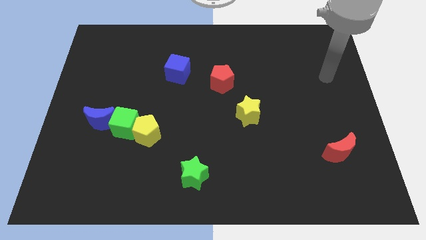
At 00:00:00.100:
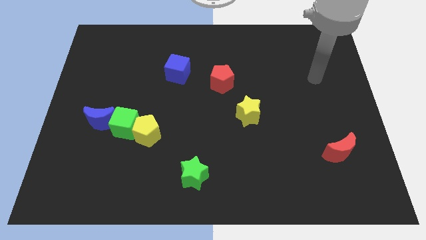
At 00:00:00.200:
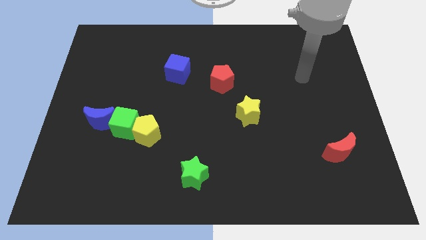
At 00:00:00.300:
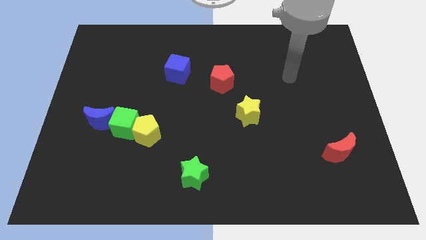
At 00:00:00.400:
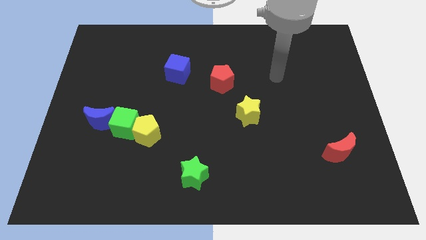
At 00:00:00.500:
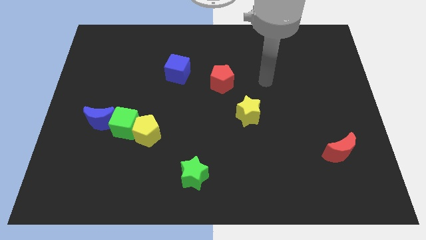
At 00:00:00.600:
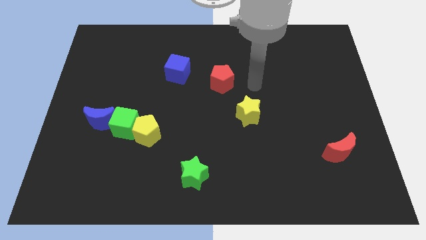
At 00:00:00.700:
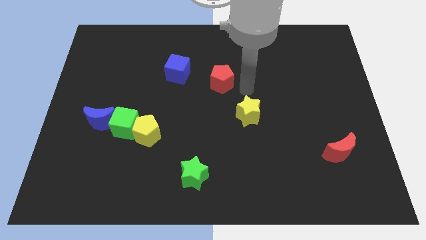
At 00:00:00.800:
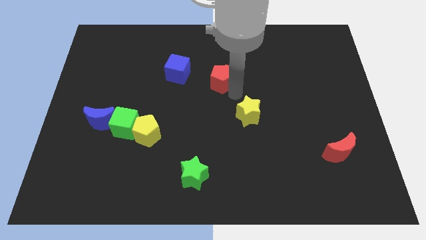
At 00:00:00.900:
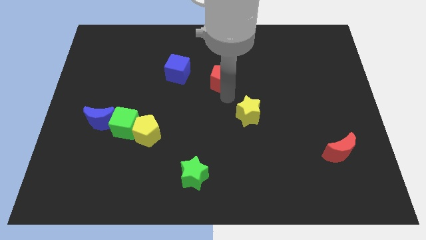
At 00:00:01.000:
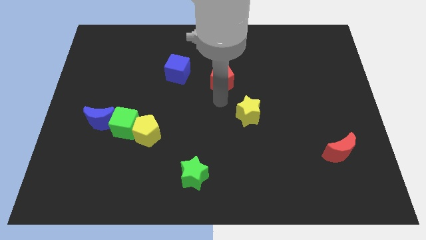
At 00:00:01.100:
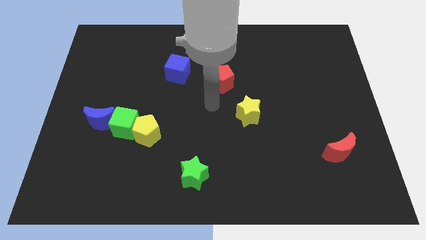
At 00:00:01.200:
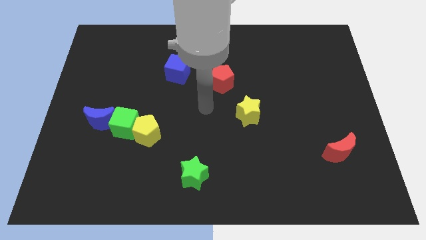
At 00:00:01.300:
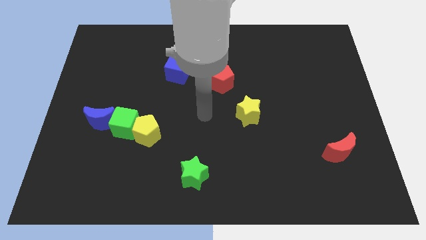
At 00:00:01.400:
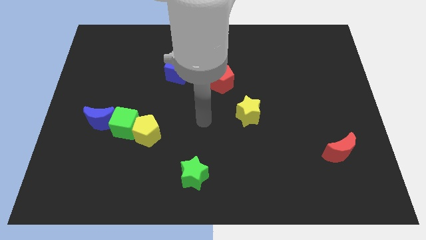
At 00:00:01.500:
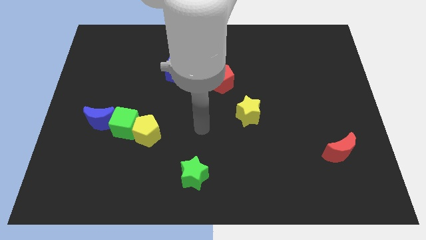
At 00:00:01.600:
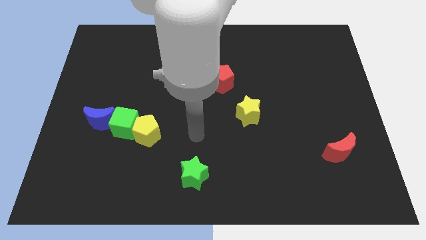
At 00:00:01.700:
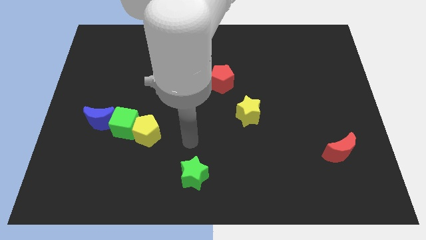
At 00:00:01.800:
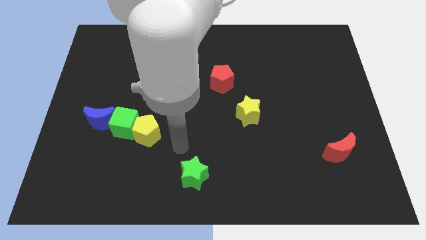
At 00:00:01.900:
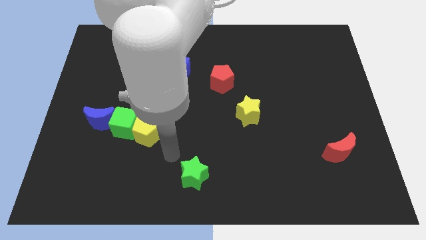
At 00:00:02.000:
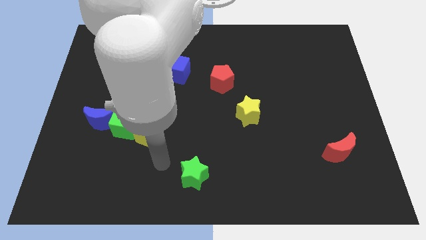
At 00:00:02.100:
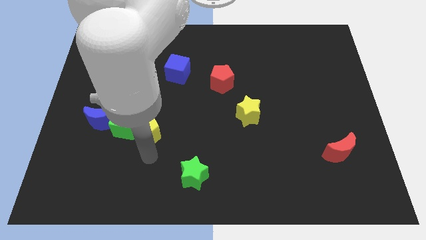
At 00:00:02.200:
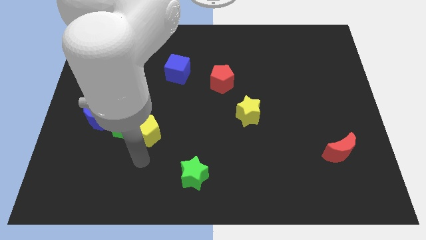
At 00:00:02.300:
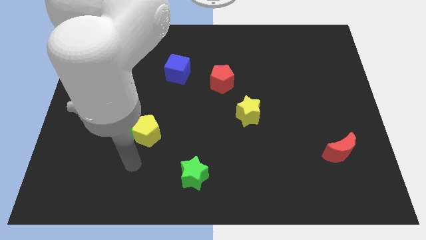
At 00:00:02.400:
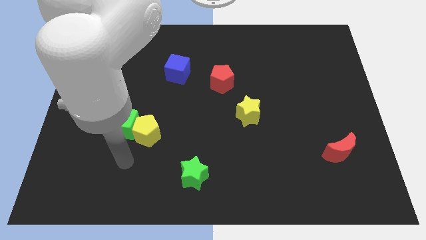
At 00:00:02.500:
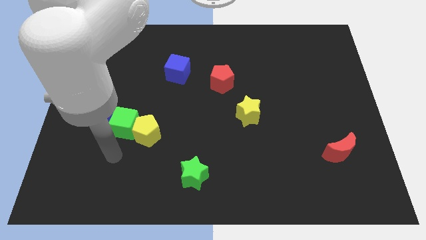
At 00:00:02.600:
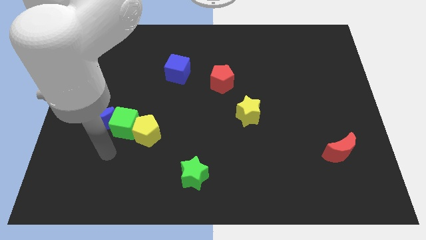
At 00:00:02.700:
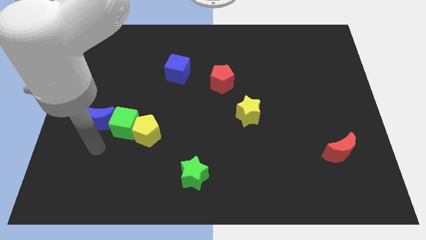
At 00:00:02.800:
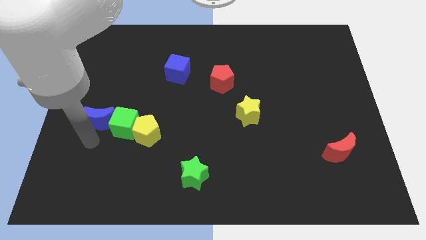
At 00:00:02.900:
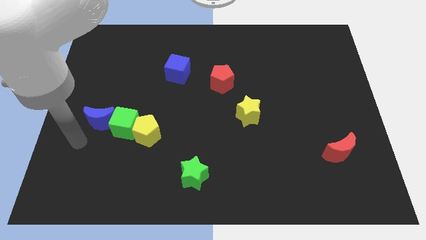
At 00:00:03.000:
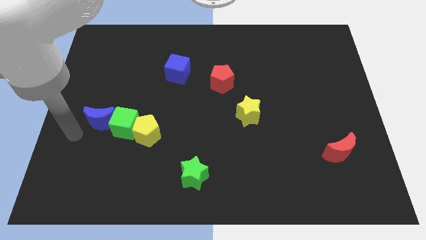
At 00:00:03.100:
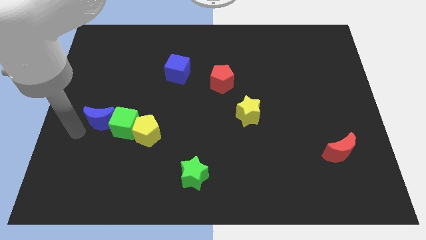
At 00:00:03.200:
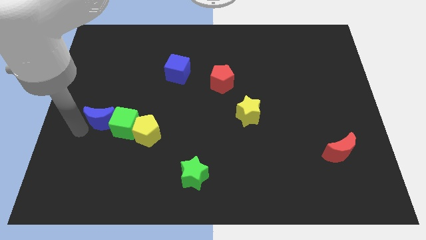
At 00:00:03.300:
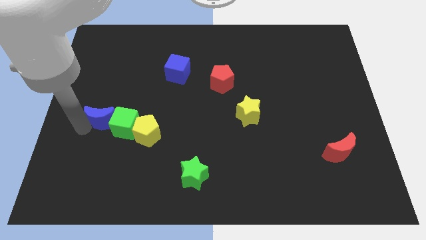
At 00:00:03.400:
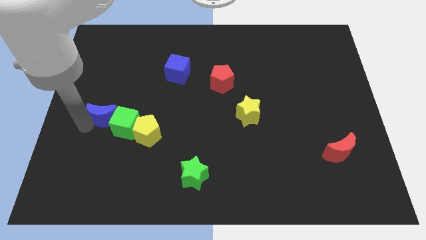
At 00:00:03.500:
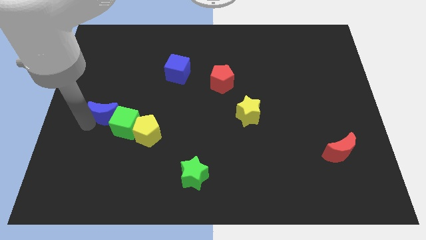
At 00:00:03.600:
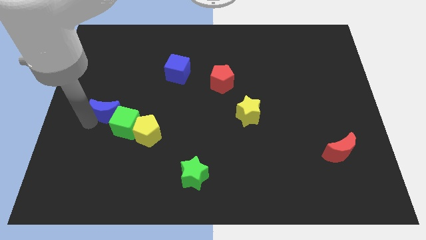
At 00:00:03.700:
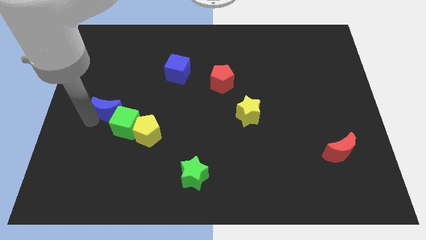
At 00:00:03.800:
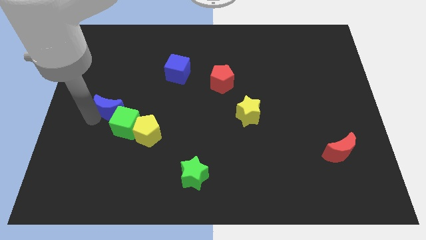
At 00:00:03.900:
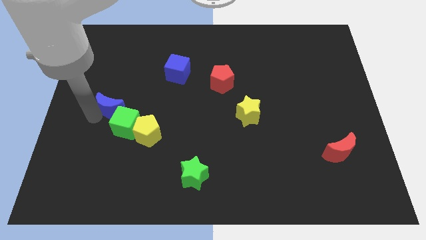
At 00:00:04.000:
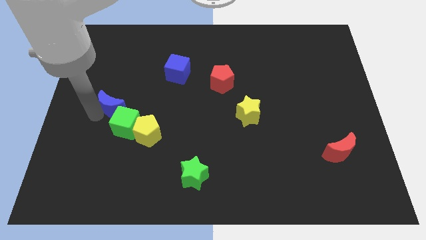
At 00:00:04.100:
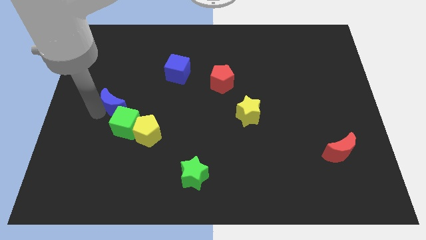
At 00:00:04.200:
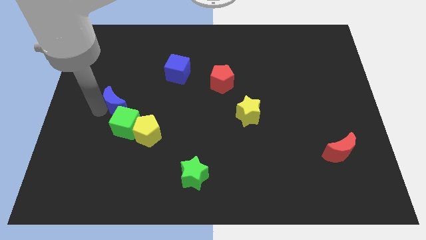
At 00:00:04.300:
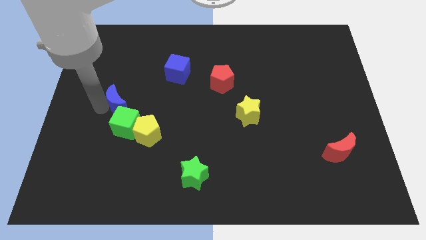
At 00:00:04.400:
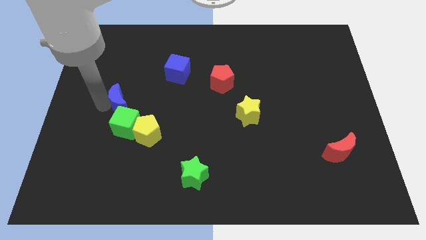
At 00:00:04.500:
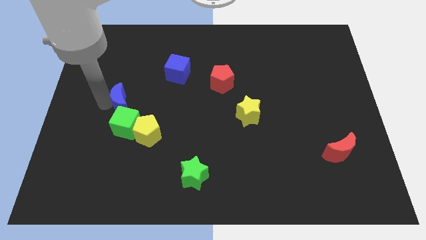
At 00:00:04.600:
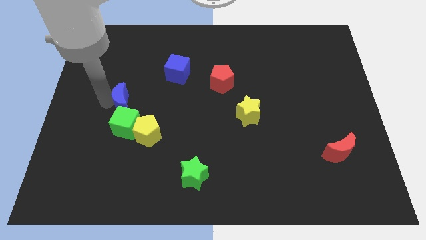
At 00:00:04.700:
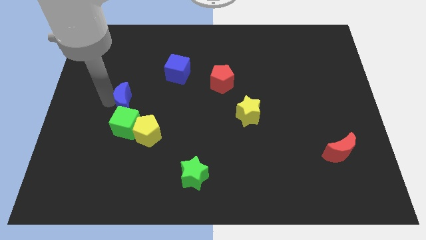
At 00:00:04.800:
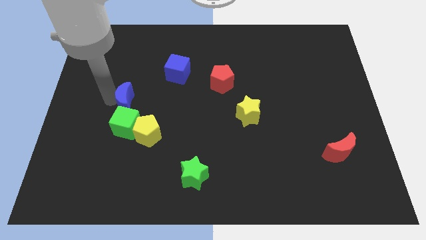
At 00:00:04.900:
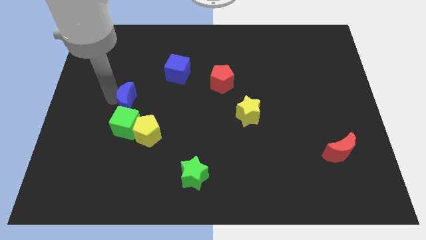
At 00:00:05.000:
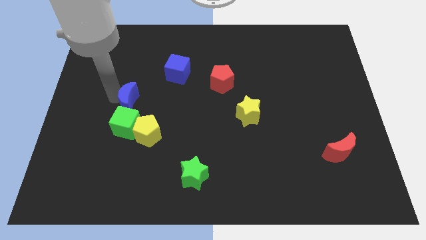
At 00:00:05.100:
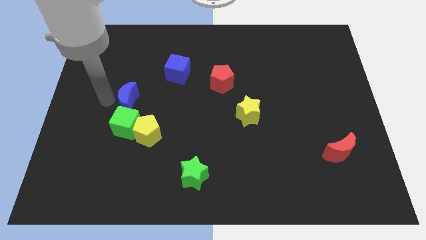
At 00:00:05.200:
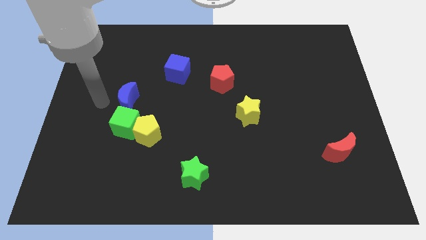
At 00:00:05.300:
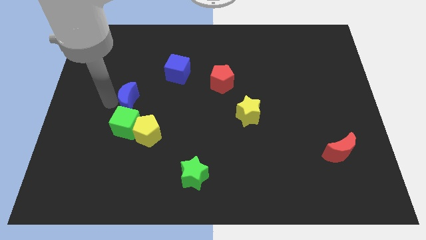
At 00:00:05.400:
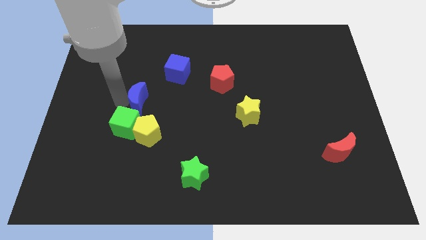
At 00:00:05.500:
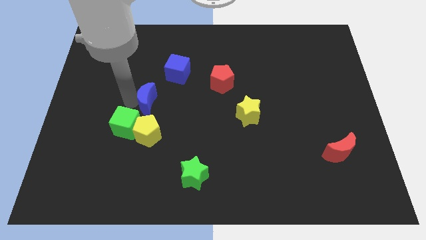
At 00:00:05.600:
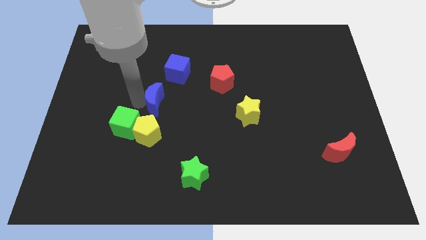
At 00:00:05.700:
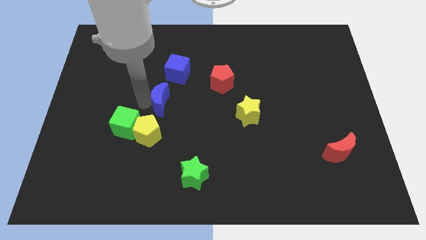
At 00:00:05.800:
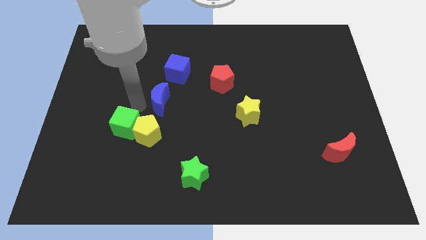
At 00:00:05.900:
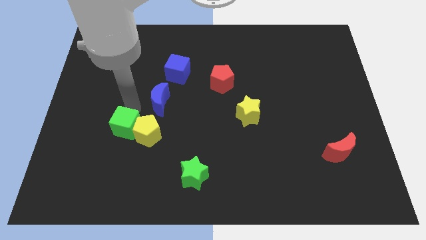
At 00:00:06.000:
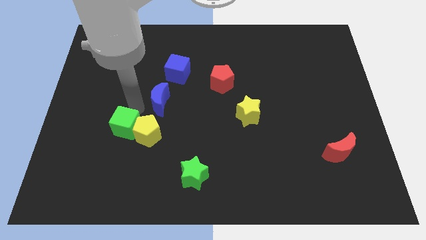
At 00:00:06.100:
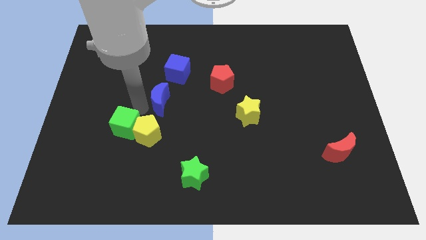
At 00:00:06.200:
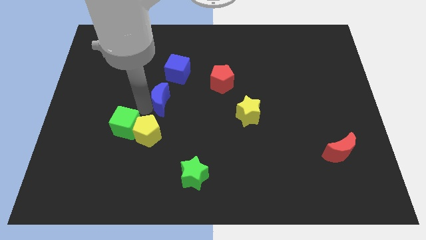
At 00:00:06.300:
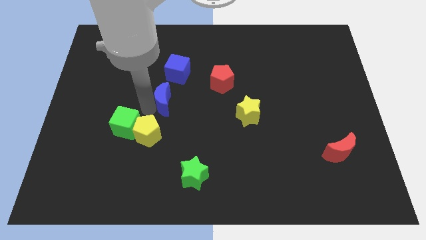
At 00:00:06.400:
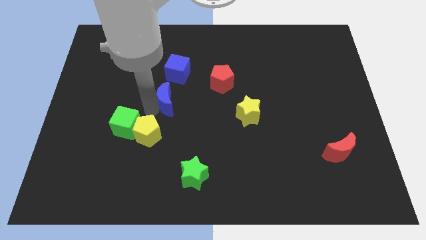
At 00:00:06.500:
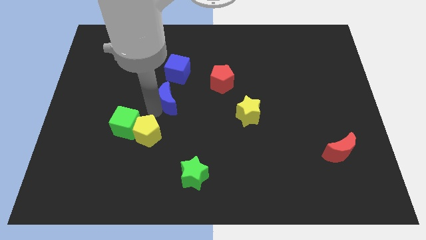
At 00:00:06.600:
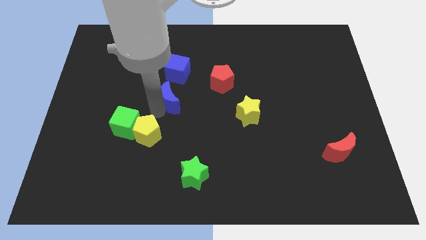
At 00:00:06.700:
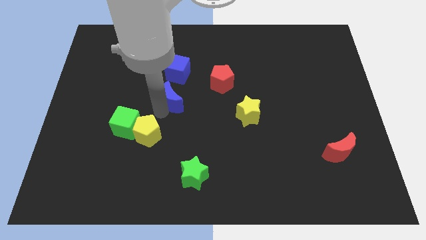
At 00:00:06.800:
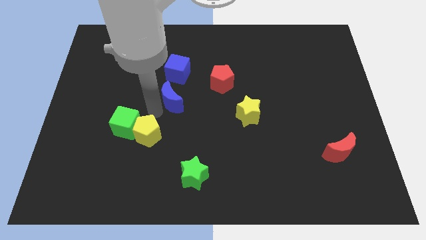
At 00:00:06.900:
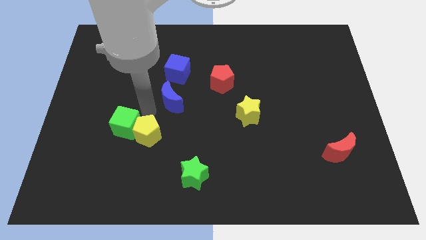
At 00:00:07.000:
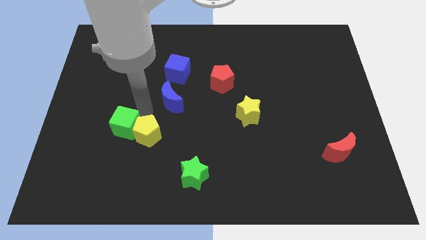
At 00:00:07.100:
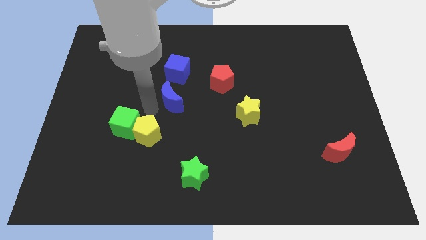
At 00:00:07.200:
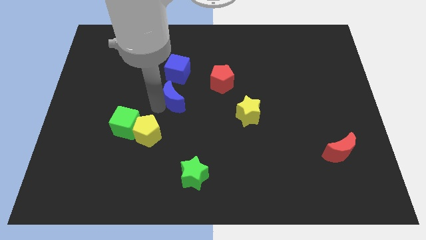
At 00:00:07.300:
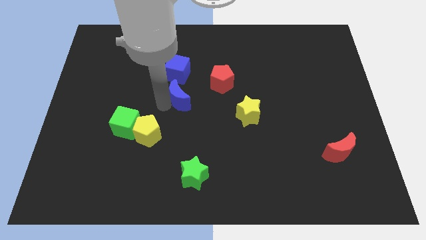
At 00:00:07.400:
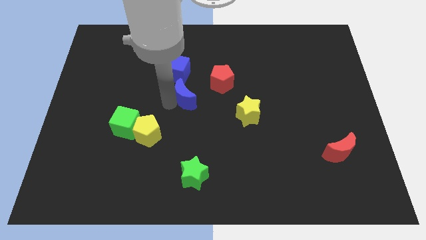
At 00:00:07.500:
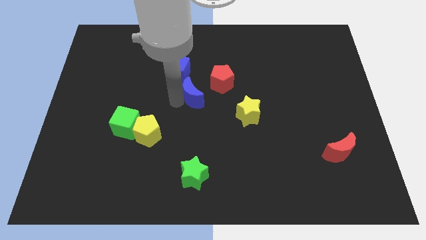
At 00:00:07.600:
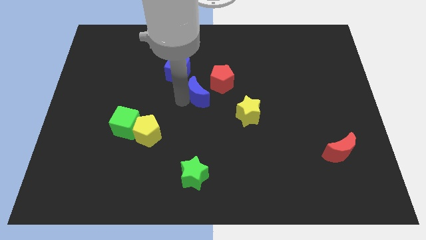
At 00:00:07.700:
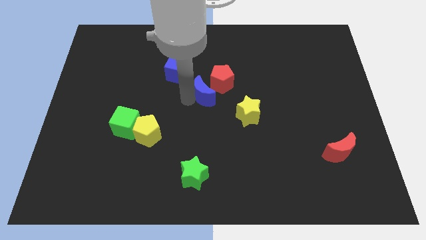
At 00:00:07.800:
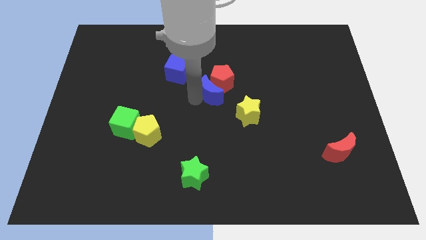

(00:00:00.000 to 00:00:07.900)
put the blue moon next to the red pentagon

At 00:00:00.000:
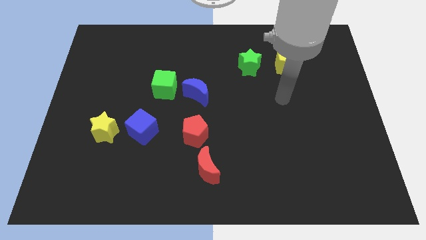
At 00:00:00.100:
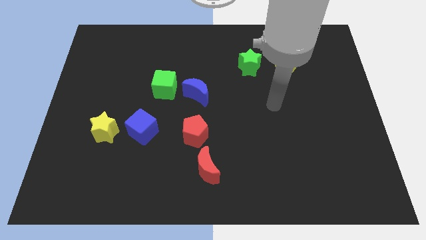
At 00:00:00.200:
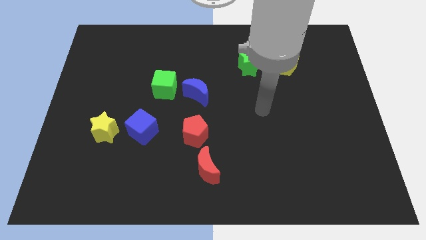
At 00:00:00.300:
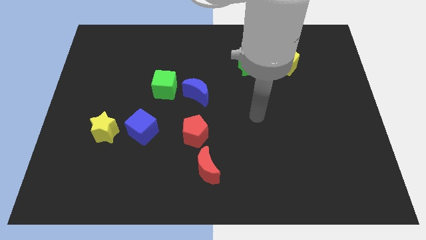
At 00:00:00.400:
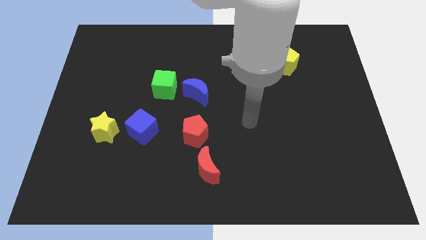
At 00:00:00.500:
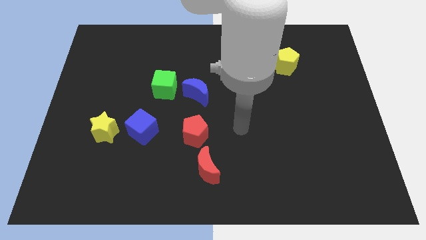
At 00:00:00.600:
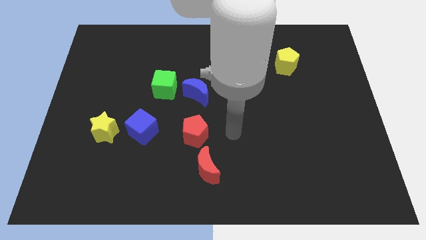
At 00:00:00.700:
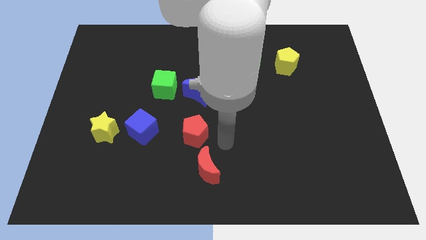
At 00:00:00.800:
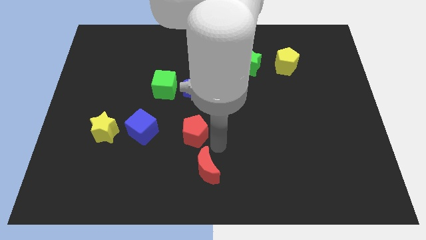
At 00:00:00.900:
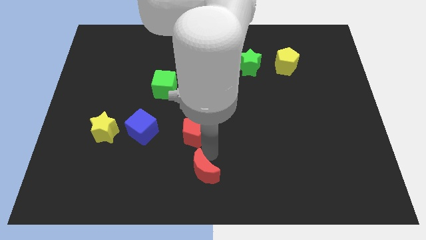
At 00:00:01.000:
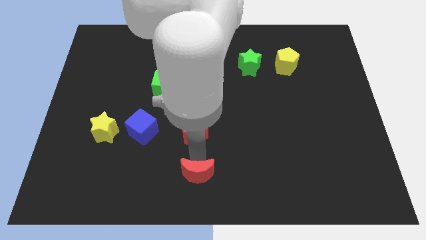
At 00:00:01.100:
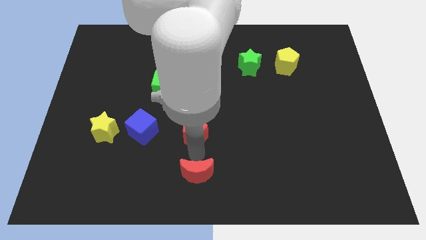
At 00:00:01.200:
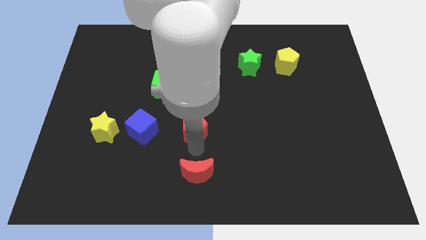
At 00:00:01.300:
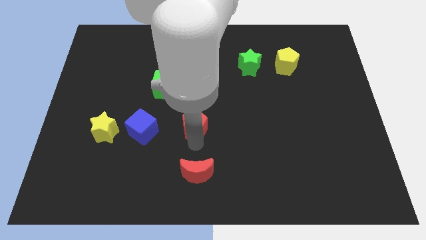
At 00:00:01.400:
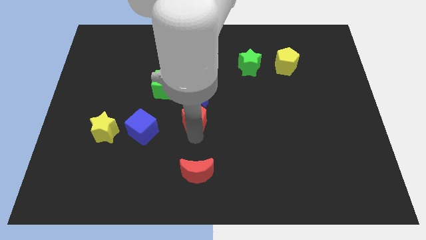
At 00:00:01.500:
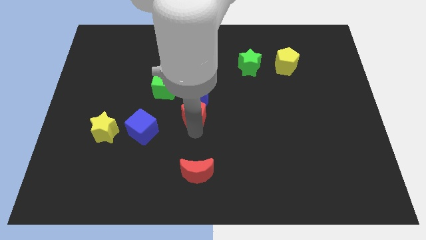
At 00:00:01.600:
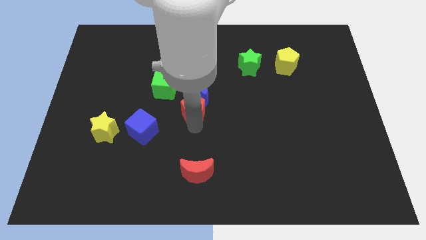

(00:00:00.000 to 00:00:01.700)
slide the red pentagon towards the blue moon
